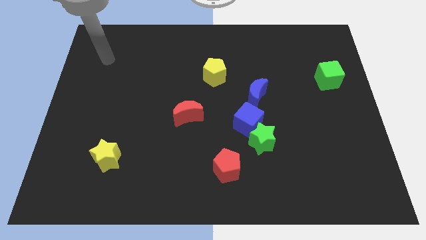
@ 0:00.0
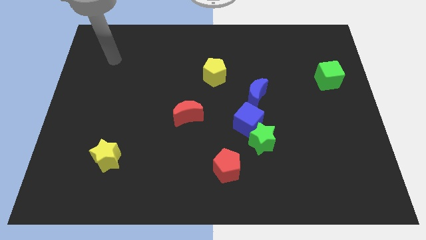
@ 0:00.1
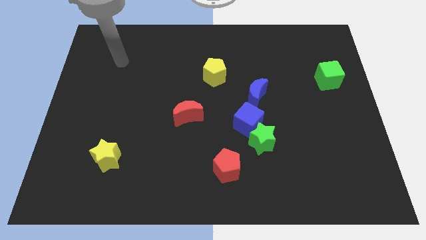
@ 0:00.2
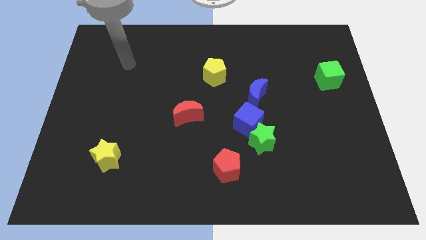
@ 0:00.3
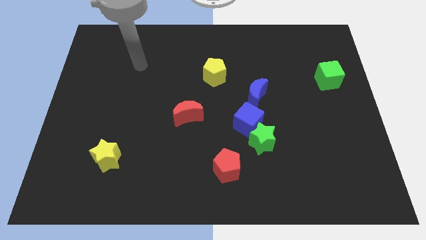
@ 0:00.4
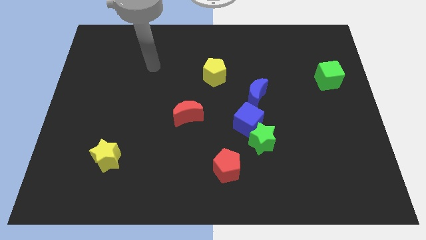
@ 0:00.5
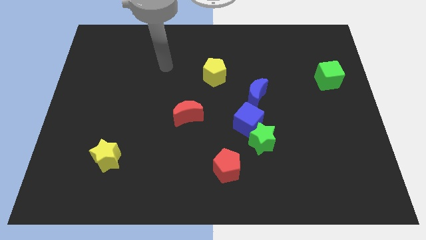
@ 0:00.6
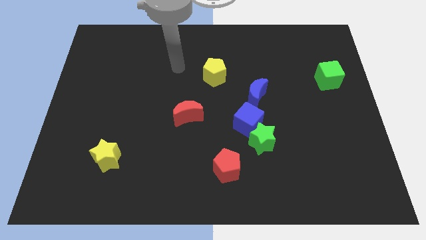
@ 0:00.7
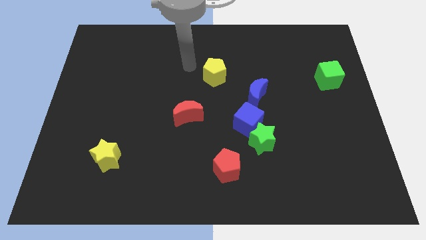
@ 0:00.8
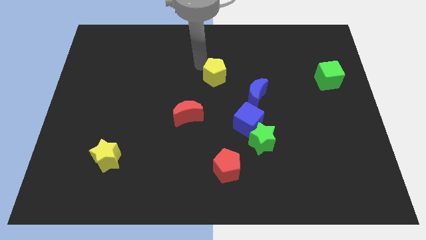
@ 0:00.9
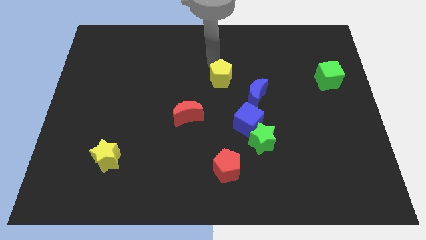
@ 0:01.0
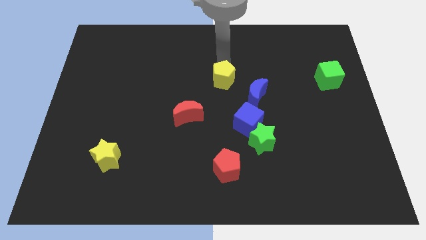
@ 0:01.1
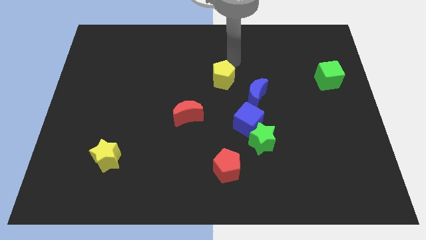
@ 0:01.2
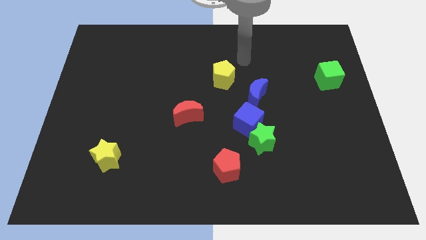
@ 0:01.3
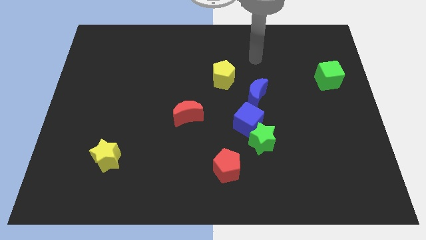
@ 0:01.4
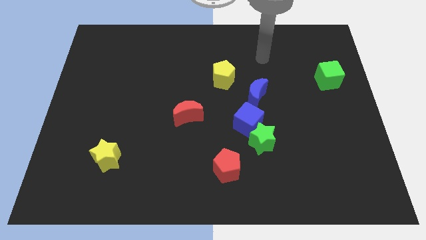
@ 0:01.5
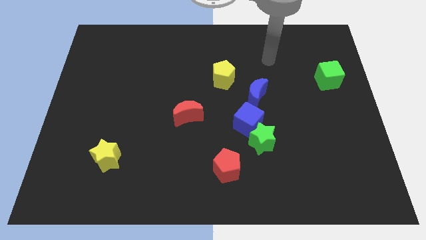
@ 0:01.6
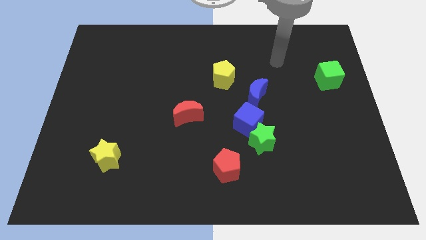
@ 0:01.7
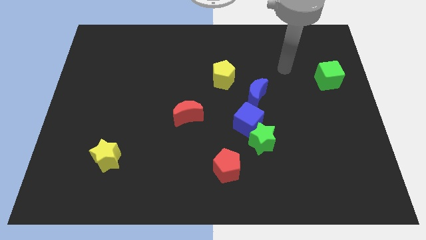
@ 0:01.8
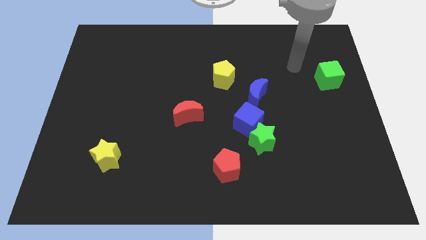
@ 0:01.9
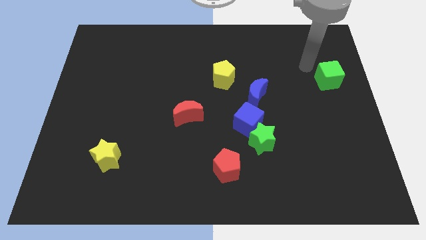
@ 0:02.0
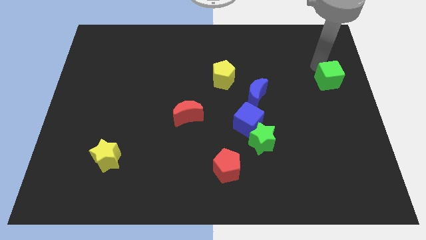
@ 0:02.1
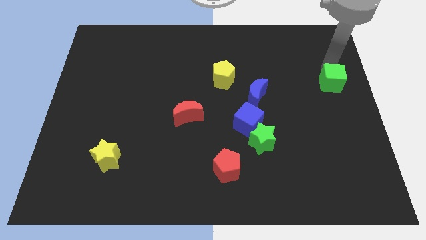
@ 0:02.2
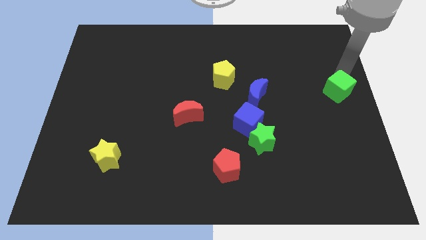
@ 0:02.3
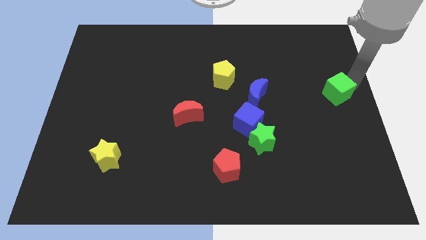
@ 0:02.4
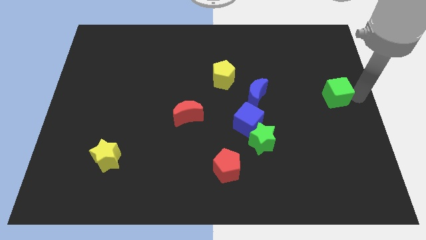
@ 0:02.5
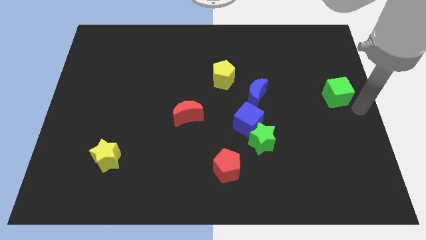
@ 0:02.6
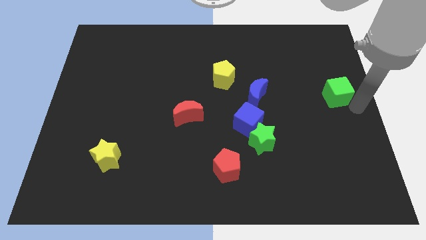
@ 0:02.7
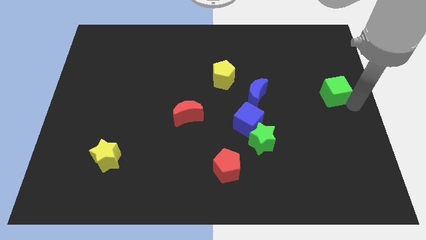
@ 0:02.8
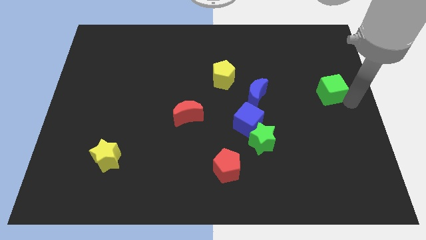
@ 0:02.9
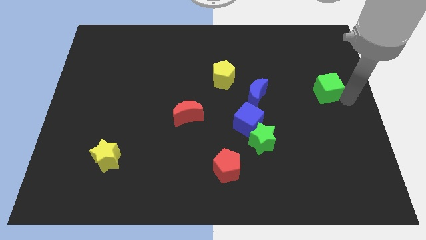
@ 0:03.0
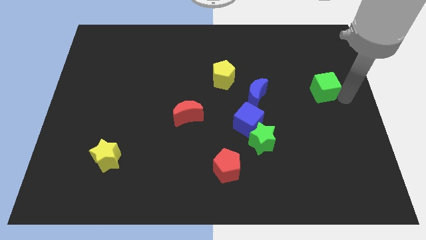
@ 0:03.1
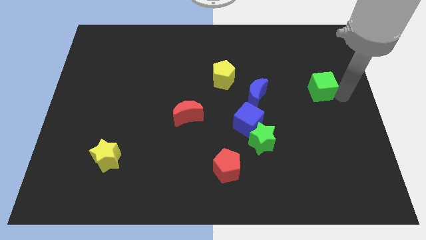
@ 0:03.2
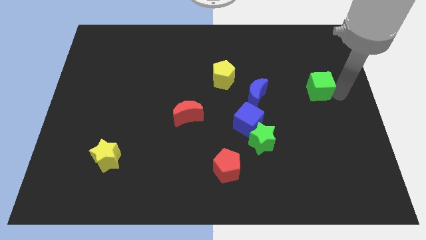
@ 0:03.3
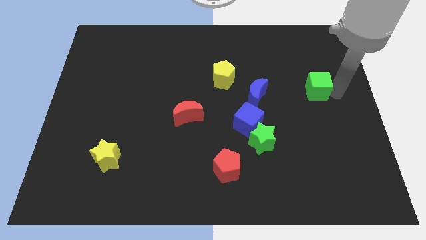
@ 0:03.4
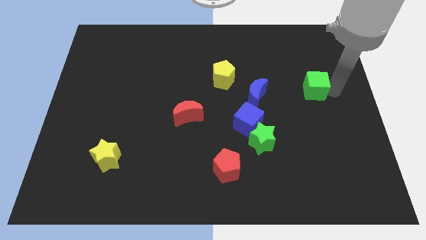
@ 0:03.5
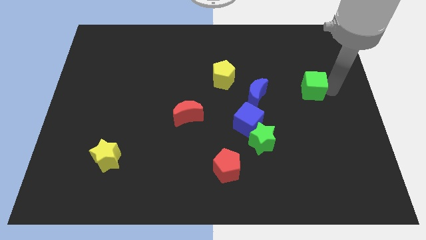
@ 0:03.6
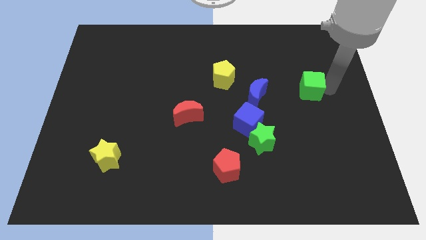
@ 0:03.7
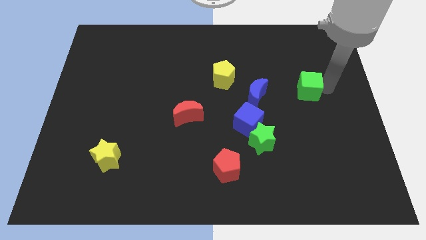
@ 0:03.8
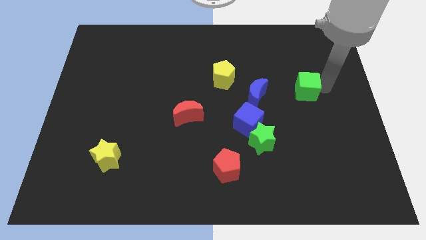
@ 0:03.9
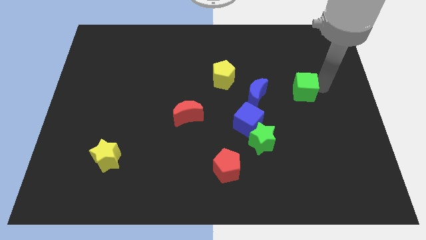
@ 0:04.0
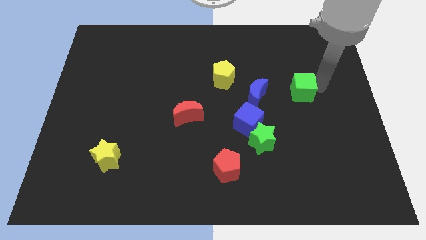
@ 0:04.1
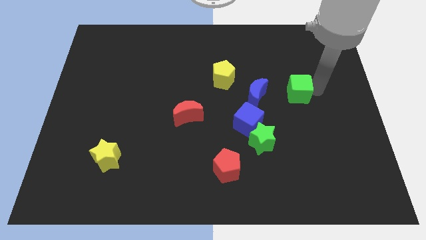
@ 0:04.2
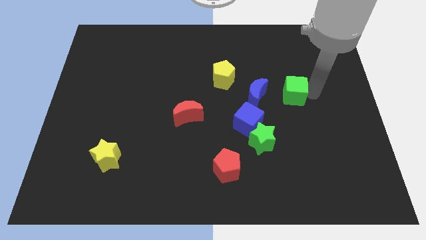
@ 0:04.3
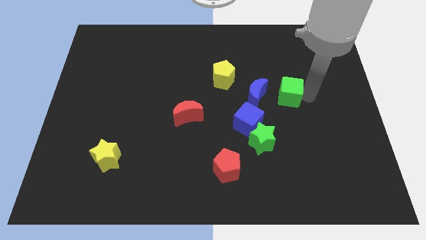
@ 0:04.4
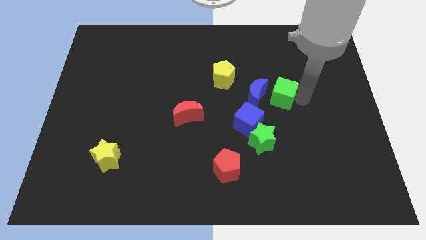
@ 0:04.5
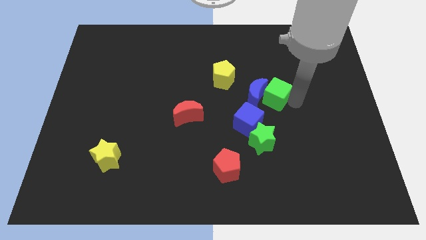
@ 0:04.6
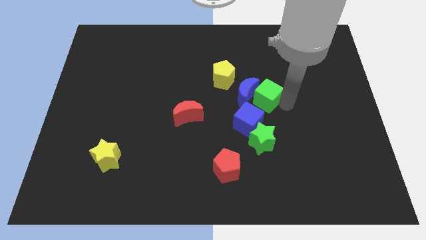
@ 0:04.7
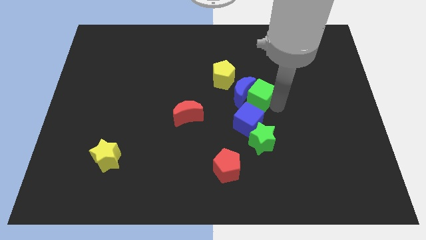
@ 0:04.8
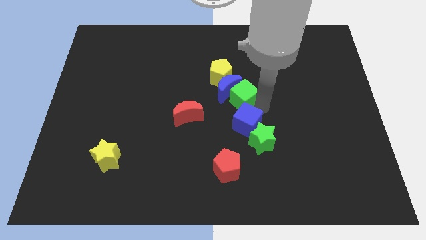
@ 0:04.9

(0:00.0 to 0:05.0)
slide the green cube left

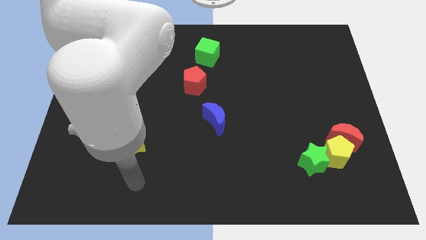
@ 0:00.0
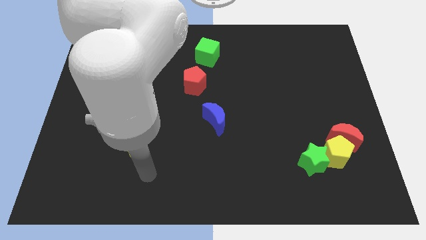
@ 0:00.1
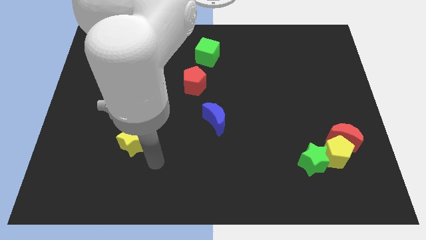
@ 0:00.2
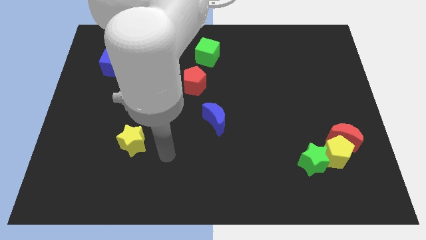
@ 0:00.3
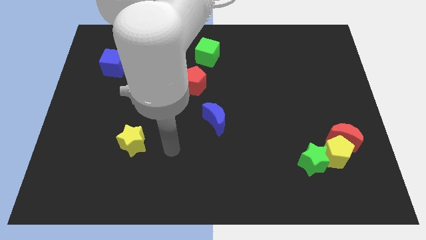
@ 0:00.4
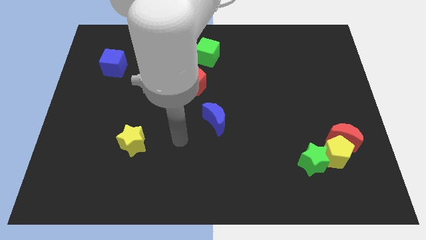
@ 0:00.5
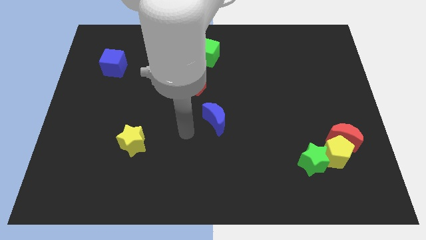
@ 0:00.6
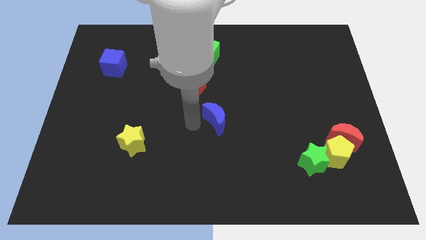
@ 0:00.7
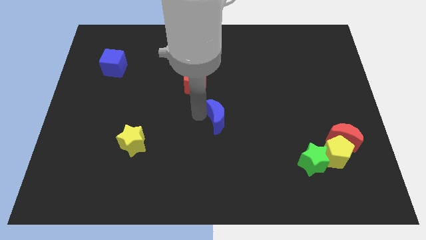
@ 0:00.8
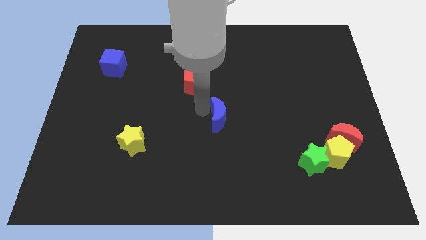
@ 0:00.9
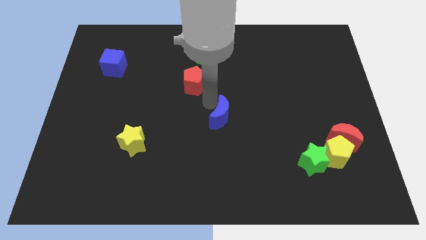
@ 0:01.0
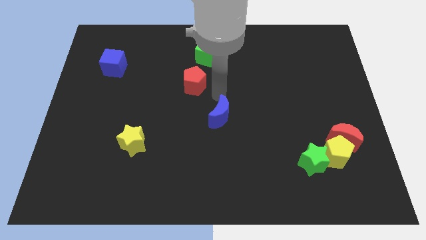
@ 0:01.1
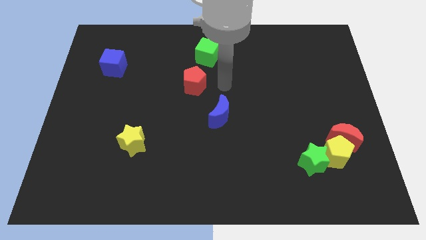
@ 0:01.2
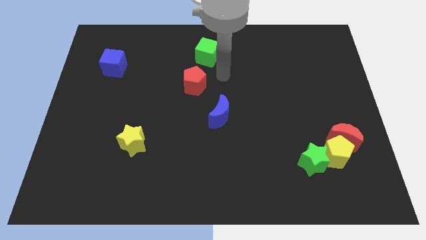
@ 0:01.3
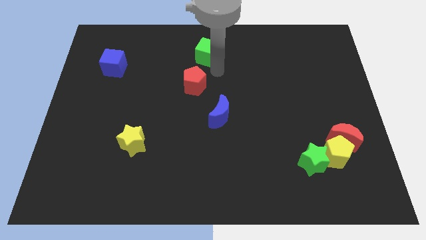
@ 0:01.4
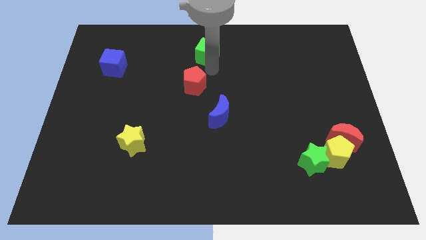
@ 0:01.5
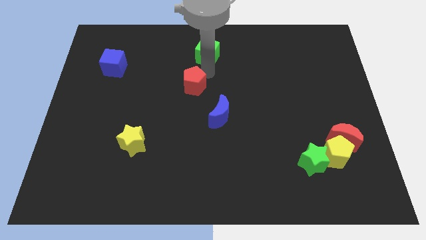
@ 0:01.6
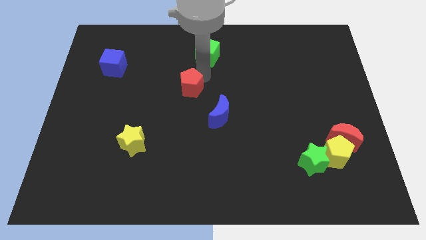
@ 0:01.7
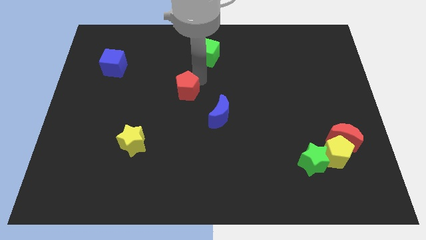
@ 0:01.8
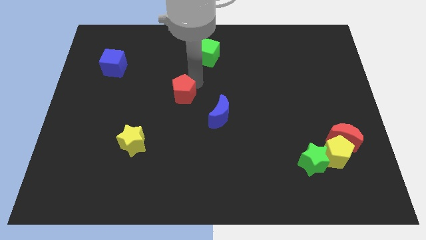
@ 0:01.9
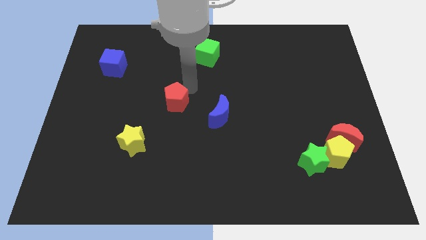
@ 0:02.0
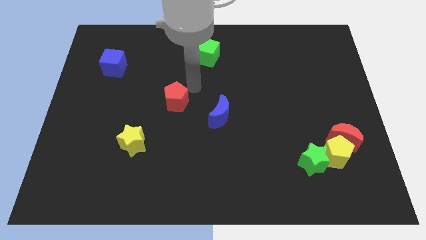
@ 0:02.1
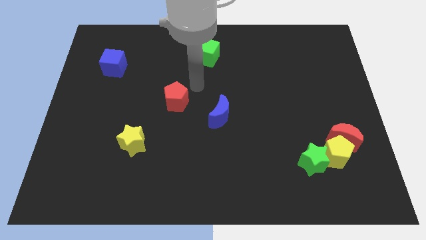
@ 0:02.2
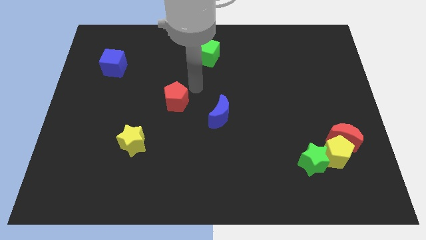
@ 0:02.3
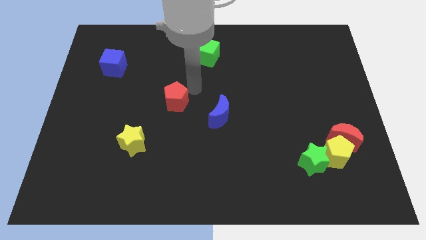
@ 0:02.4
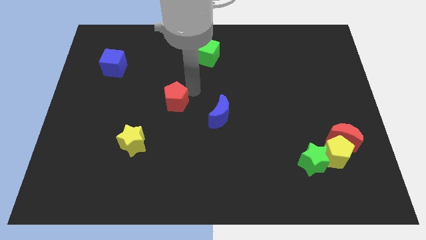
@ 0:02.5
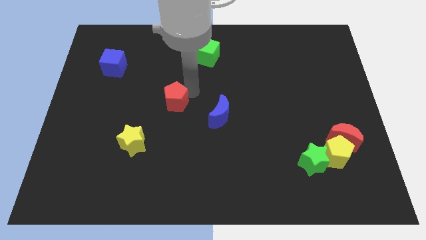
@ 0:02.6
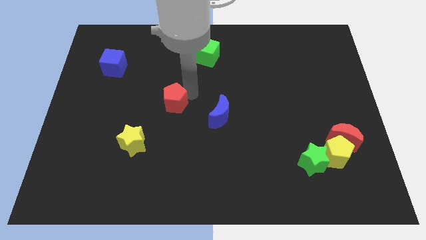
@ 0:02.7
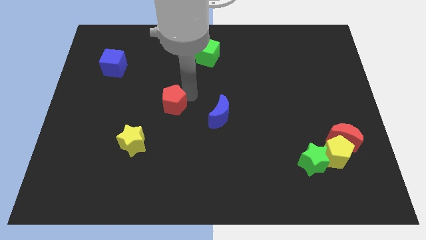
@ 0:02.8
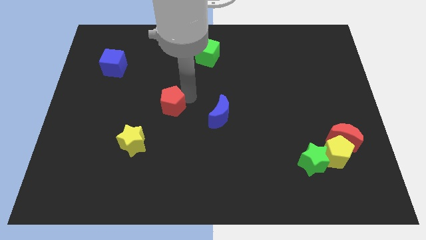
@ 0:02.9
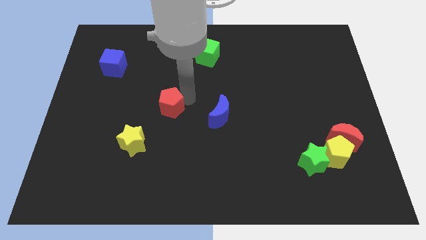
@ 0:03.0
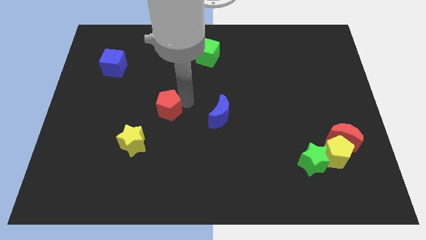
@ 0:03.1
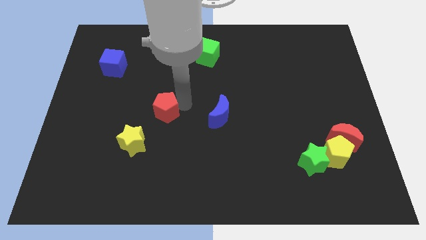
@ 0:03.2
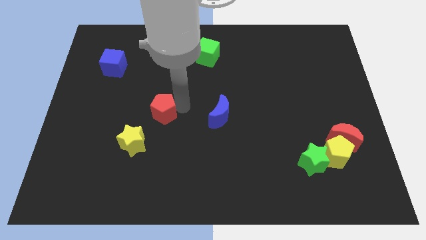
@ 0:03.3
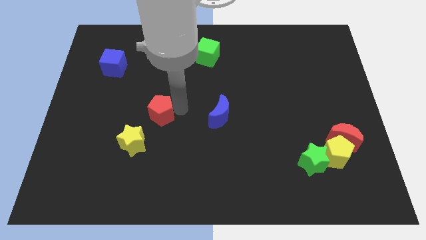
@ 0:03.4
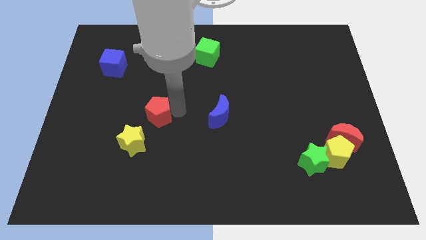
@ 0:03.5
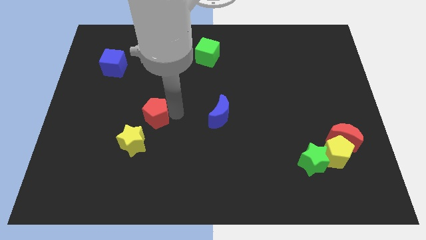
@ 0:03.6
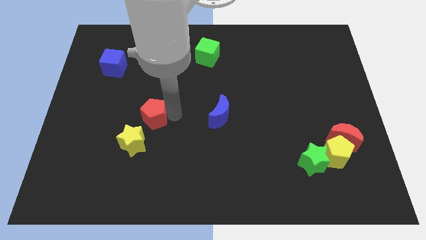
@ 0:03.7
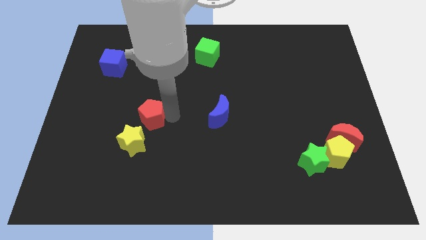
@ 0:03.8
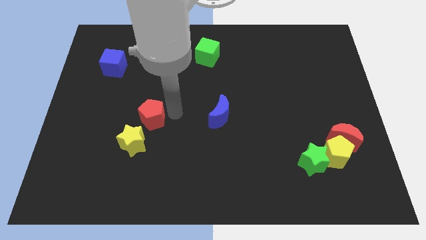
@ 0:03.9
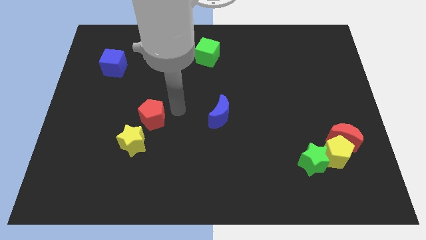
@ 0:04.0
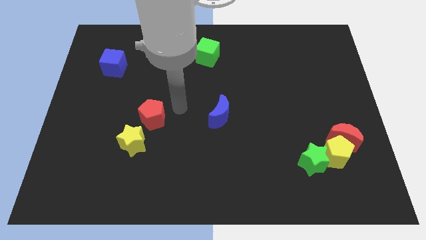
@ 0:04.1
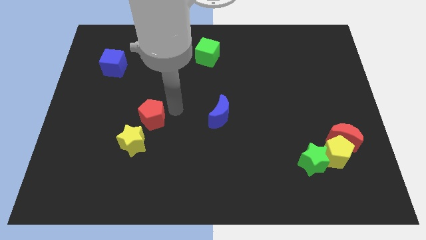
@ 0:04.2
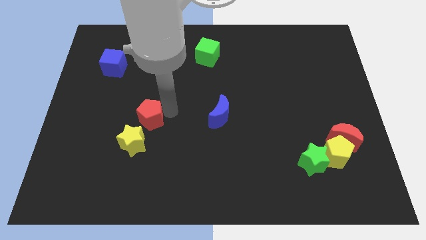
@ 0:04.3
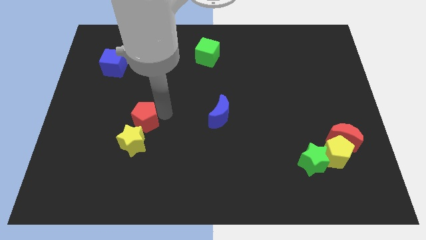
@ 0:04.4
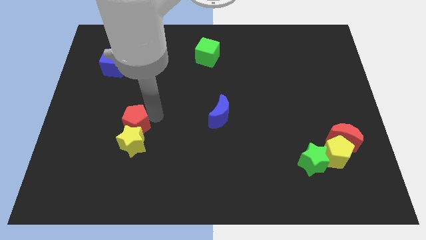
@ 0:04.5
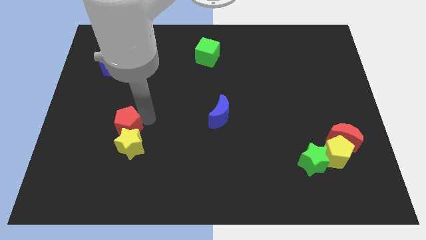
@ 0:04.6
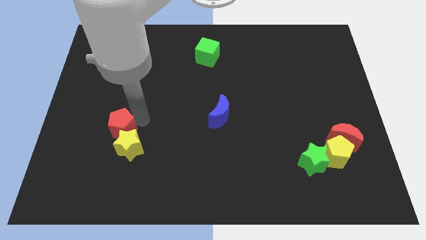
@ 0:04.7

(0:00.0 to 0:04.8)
move the red pentagon downwards and to the left
